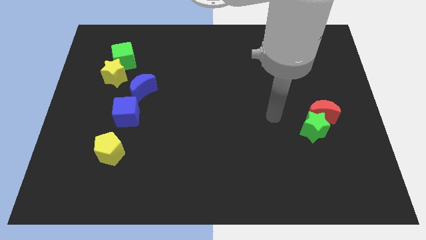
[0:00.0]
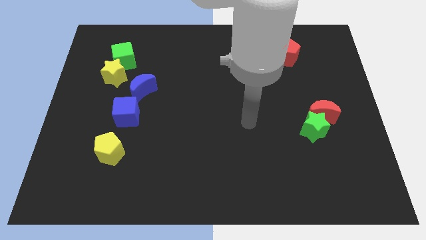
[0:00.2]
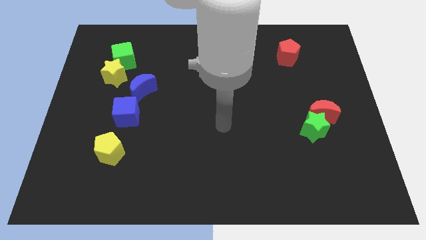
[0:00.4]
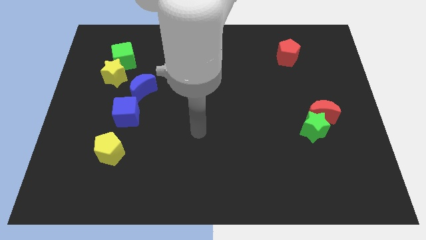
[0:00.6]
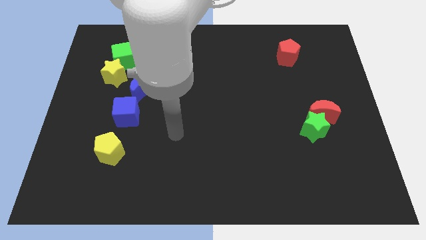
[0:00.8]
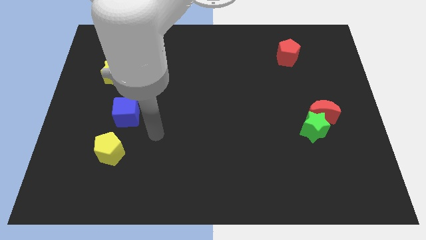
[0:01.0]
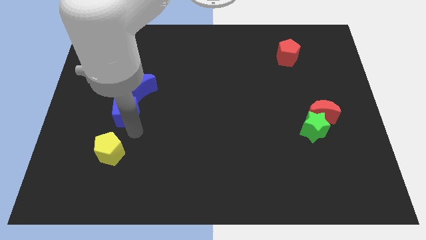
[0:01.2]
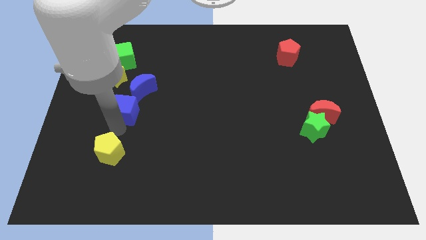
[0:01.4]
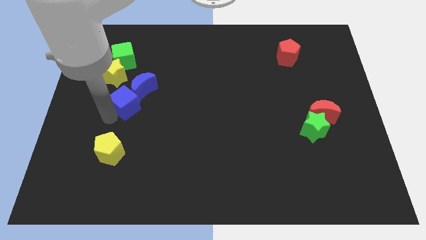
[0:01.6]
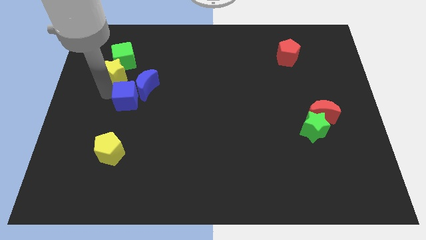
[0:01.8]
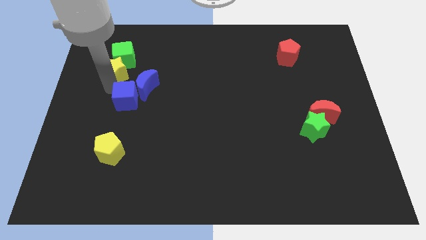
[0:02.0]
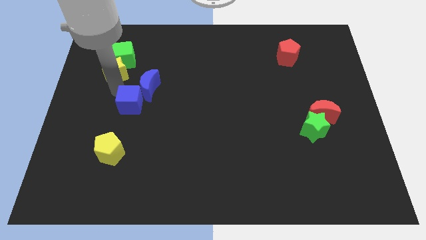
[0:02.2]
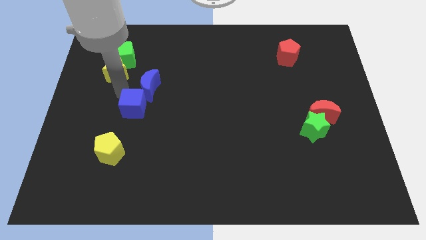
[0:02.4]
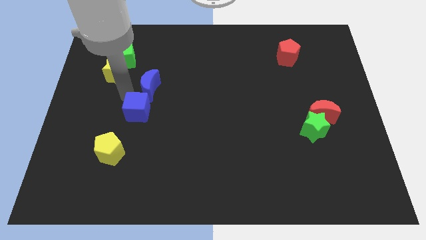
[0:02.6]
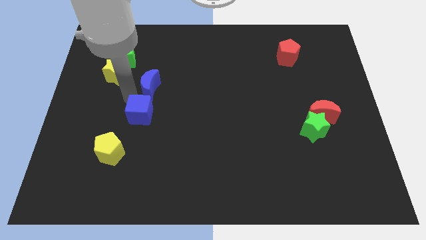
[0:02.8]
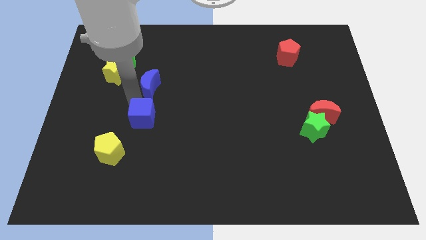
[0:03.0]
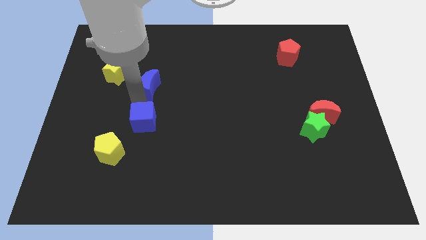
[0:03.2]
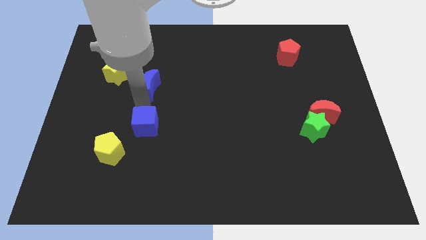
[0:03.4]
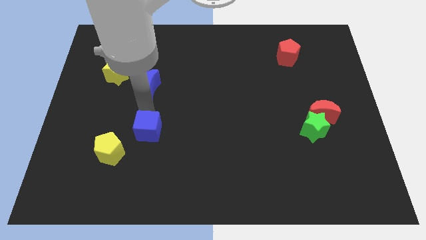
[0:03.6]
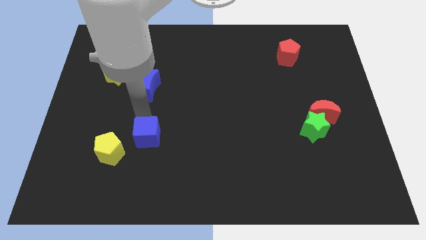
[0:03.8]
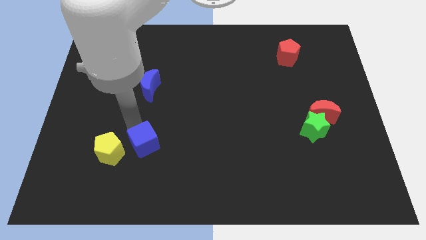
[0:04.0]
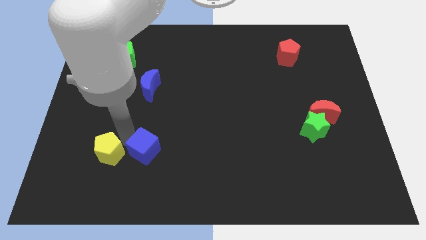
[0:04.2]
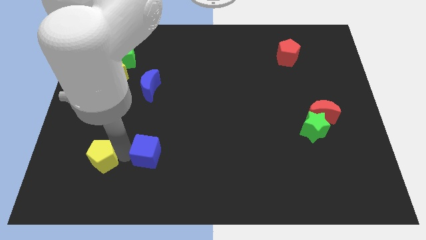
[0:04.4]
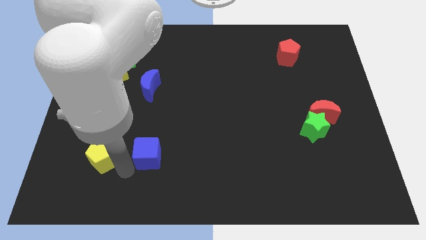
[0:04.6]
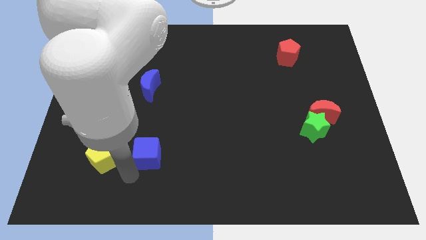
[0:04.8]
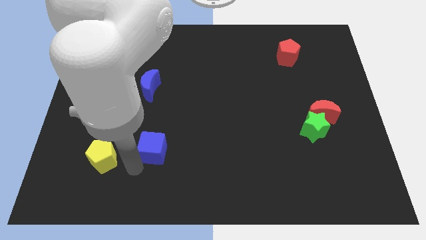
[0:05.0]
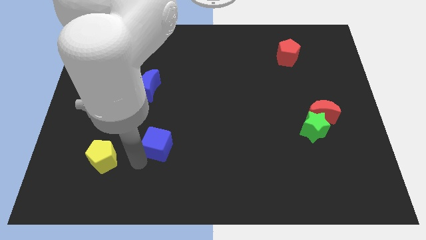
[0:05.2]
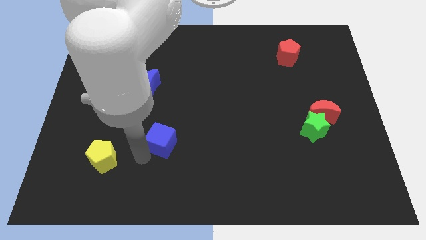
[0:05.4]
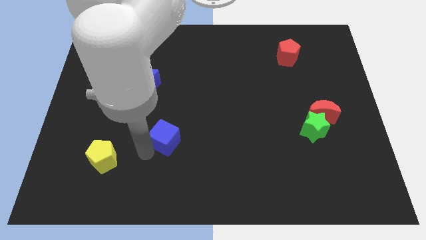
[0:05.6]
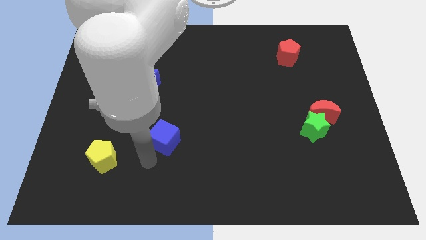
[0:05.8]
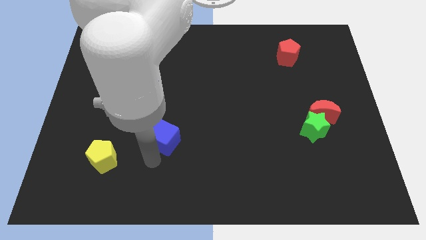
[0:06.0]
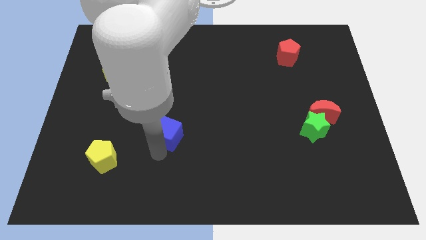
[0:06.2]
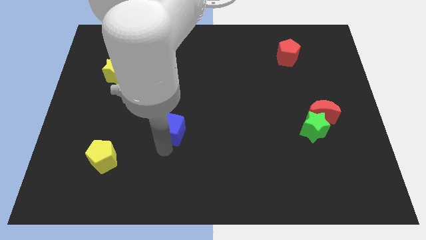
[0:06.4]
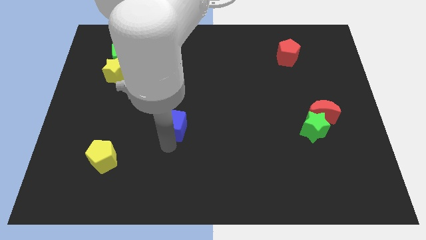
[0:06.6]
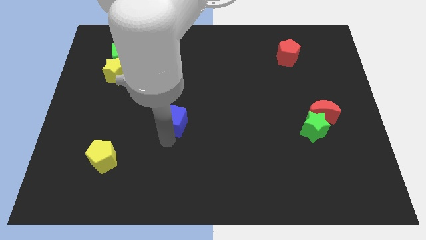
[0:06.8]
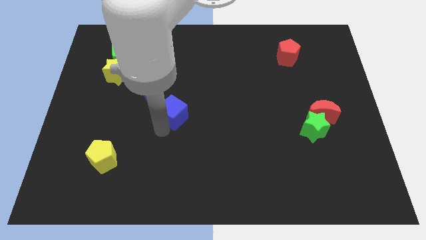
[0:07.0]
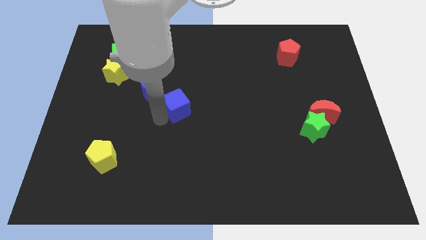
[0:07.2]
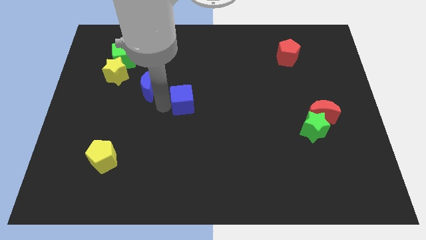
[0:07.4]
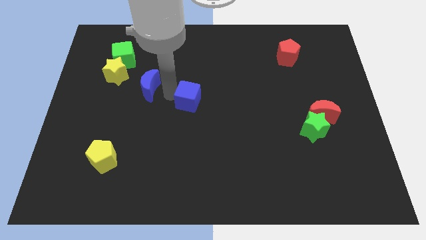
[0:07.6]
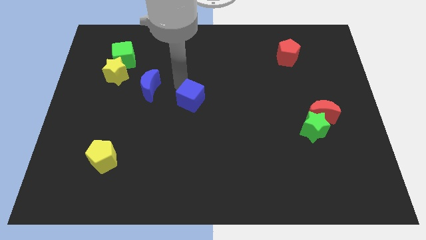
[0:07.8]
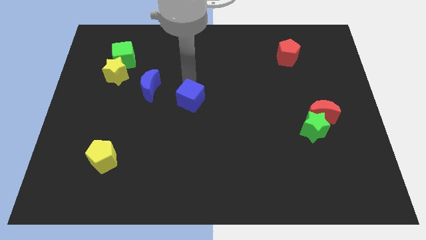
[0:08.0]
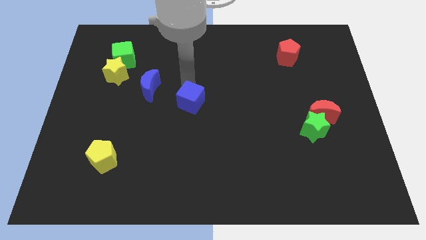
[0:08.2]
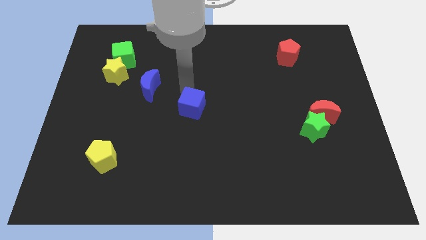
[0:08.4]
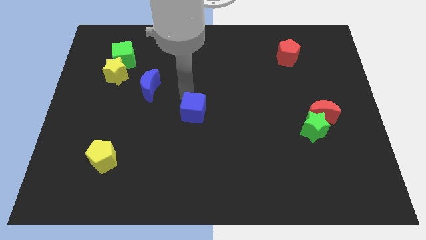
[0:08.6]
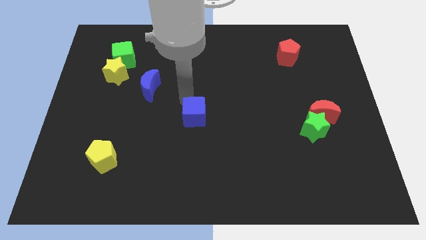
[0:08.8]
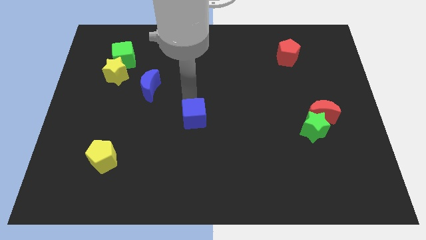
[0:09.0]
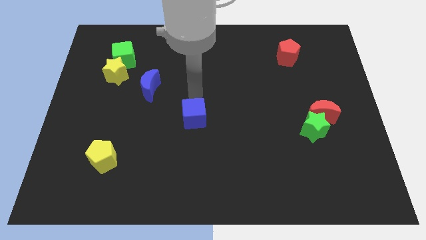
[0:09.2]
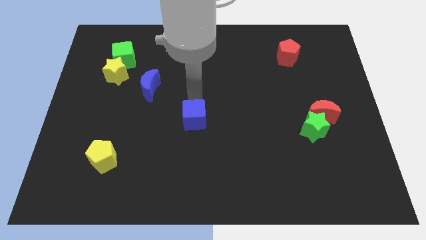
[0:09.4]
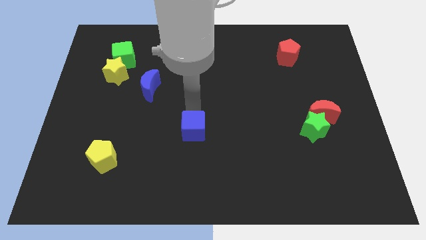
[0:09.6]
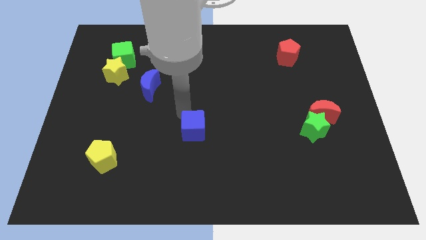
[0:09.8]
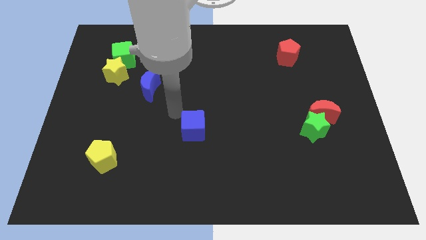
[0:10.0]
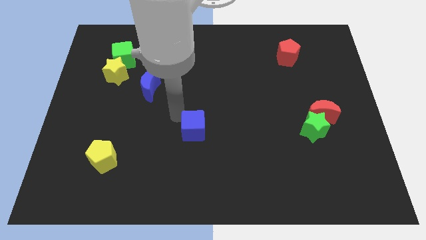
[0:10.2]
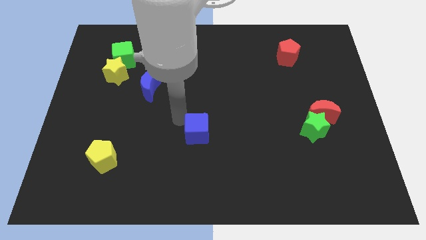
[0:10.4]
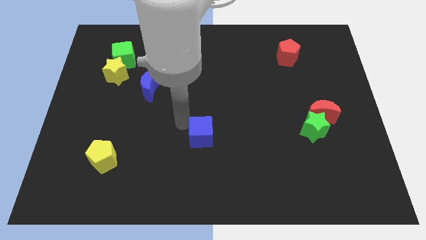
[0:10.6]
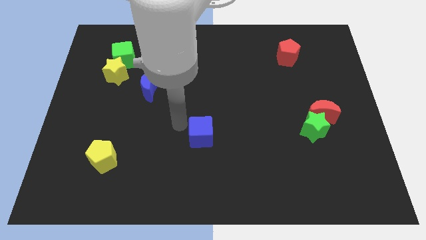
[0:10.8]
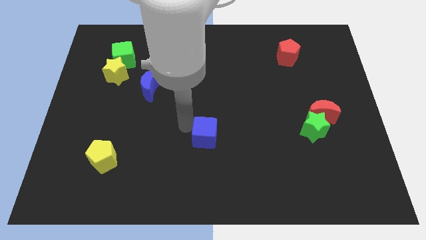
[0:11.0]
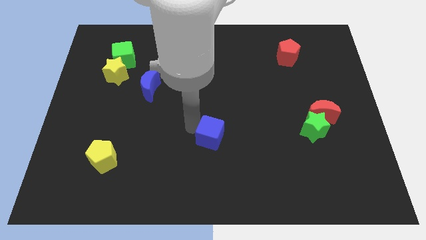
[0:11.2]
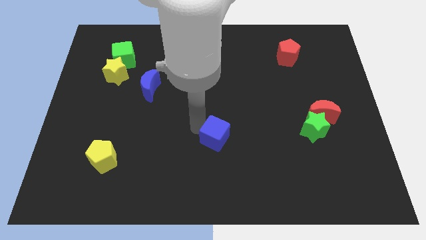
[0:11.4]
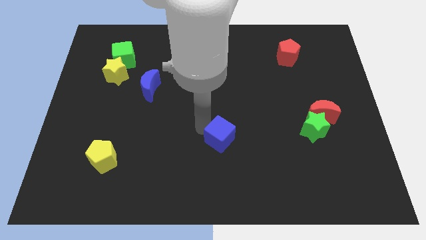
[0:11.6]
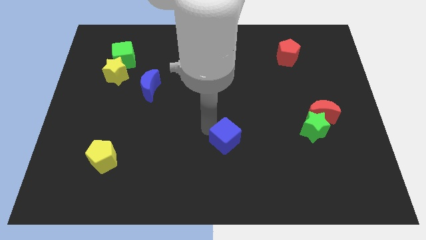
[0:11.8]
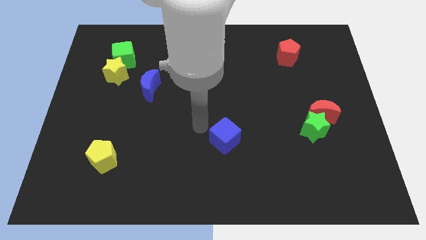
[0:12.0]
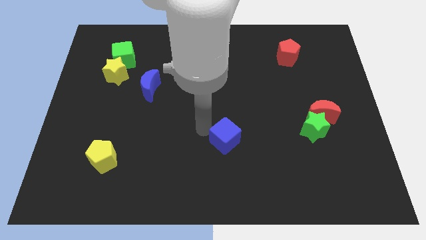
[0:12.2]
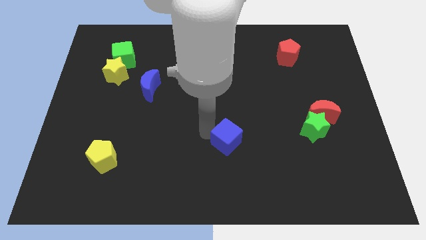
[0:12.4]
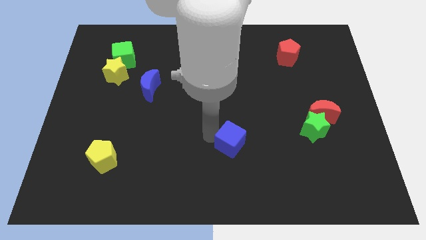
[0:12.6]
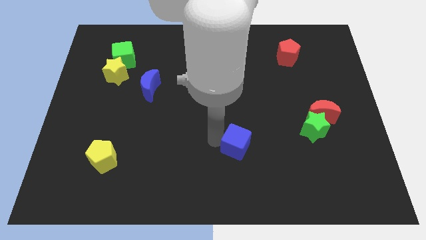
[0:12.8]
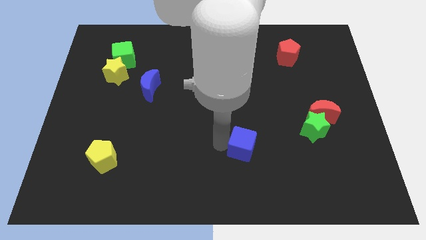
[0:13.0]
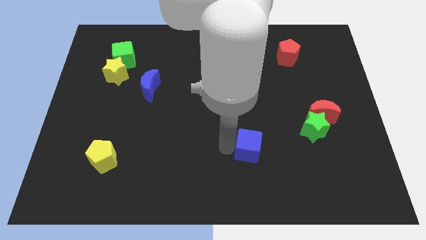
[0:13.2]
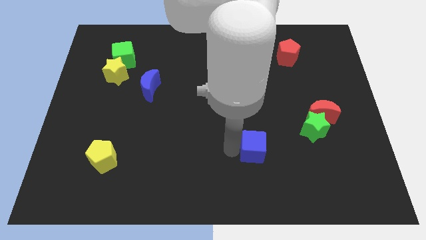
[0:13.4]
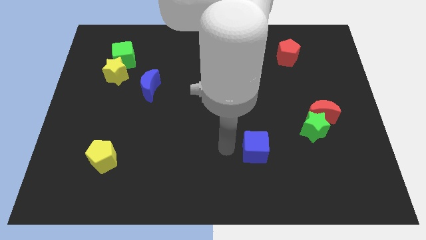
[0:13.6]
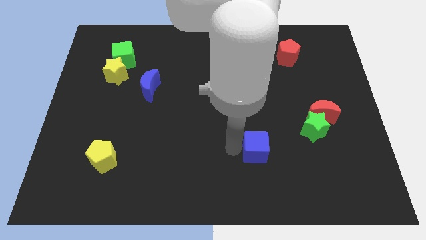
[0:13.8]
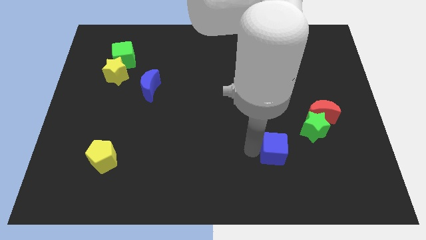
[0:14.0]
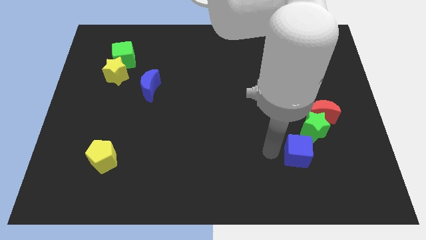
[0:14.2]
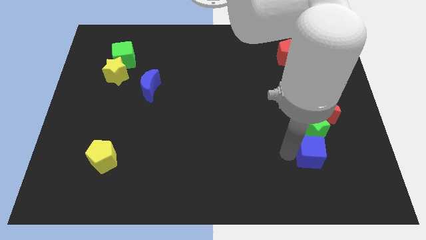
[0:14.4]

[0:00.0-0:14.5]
put the blue cube to the bottom of the red moon
